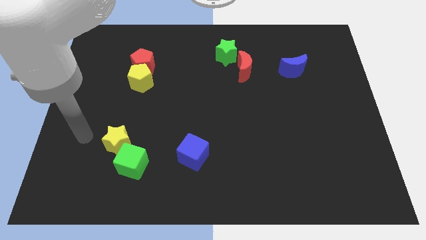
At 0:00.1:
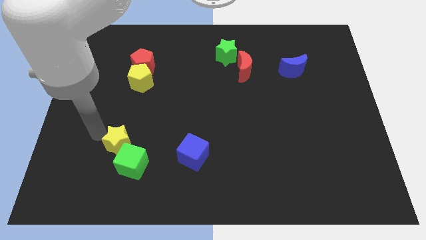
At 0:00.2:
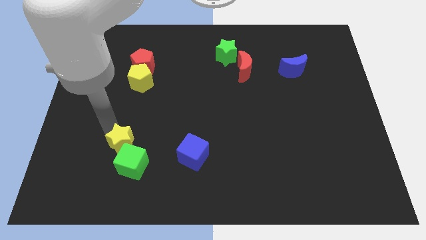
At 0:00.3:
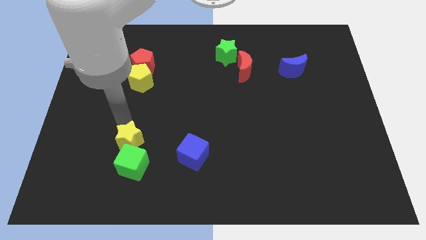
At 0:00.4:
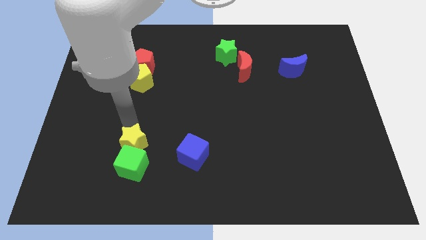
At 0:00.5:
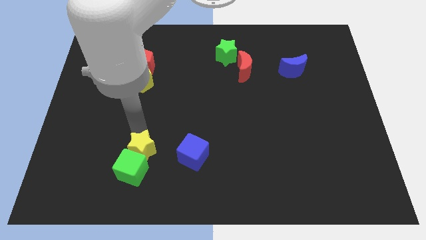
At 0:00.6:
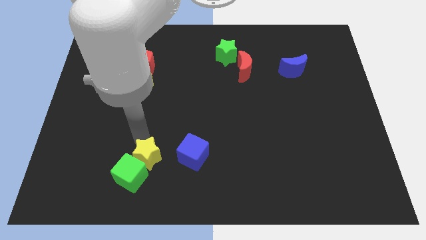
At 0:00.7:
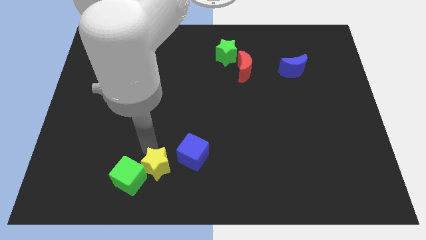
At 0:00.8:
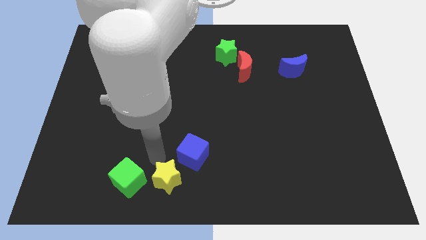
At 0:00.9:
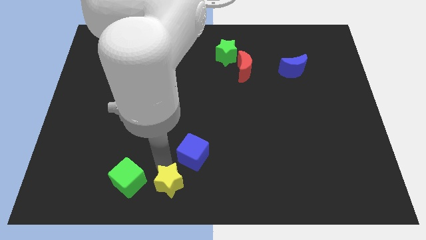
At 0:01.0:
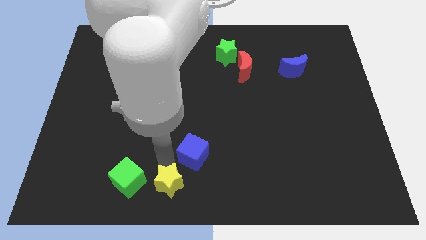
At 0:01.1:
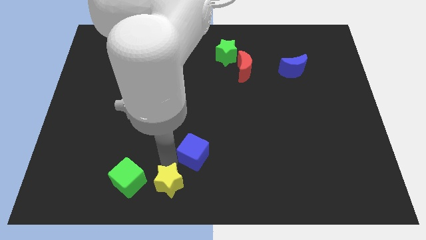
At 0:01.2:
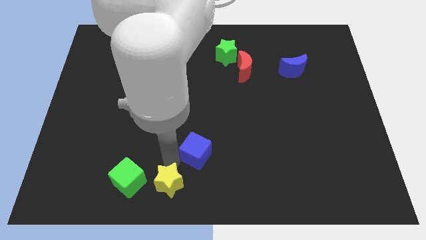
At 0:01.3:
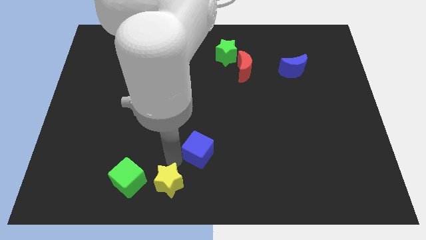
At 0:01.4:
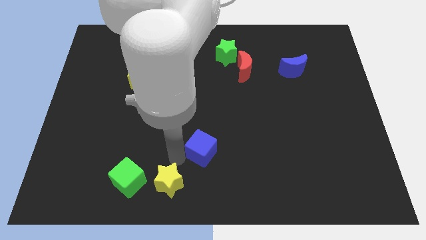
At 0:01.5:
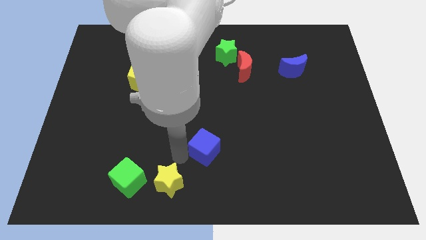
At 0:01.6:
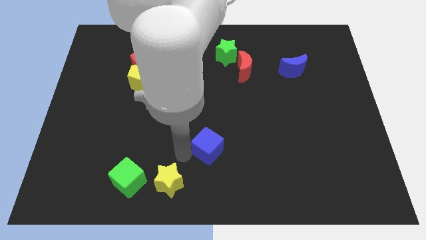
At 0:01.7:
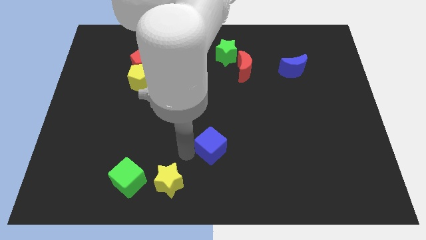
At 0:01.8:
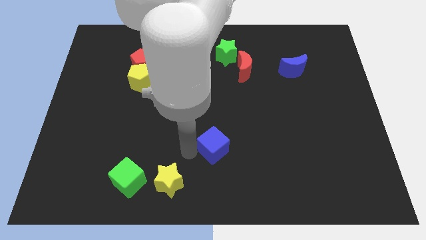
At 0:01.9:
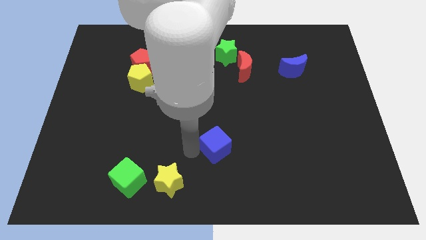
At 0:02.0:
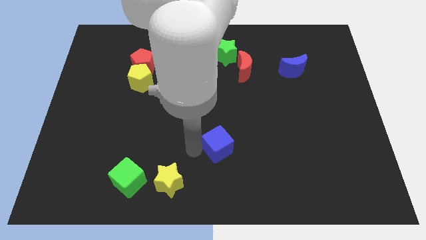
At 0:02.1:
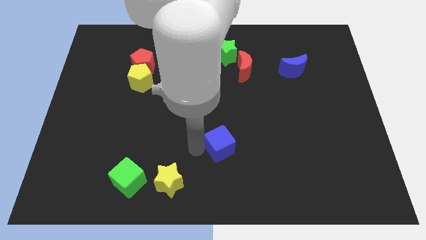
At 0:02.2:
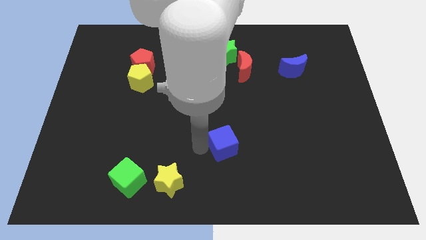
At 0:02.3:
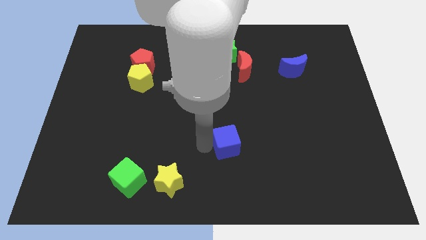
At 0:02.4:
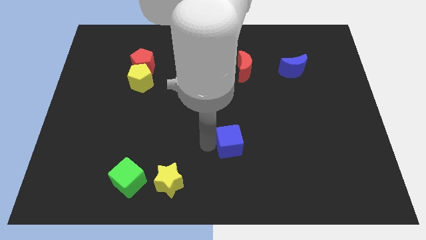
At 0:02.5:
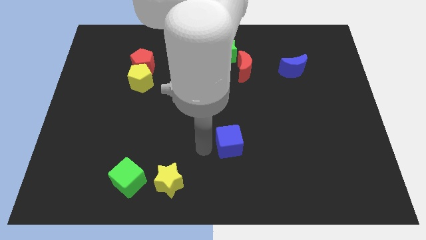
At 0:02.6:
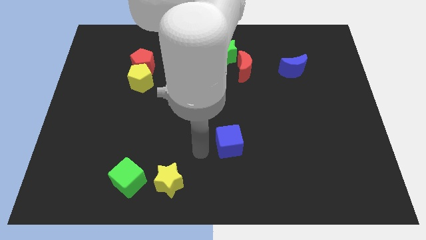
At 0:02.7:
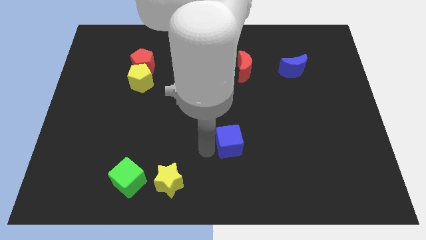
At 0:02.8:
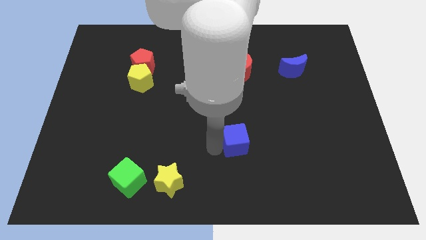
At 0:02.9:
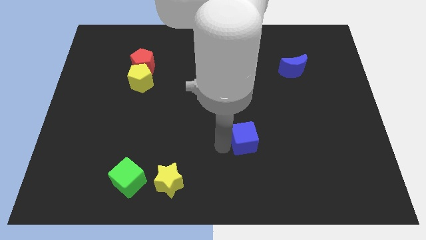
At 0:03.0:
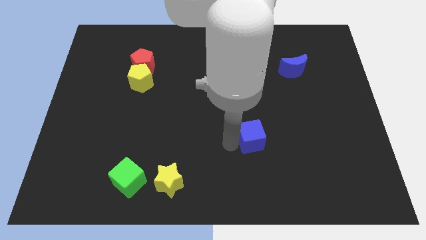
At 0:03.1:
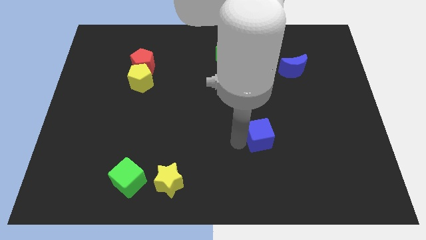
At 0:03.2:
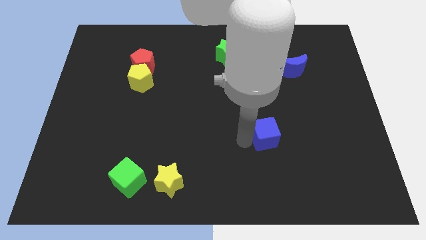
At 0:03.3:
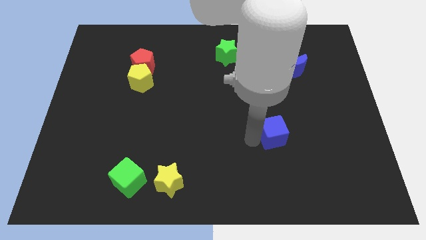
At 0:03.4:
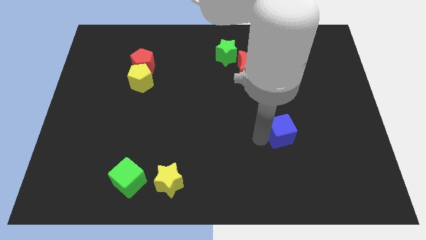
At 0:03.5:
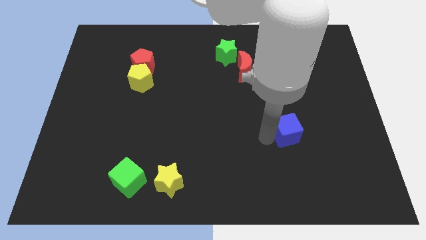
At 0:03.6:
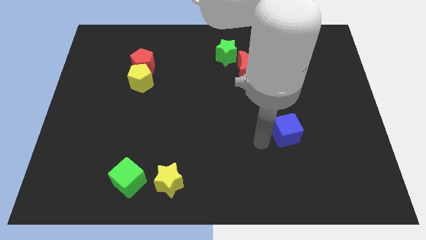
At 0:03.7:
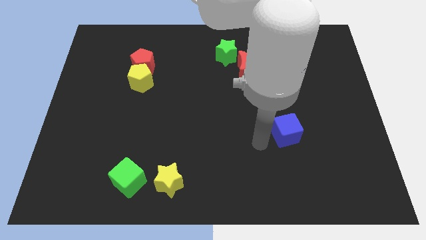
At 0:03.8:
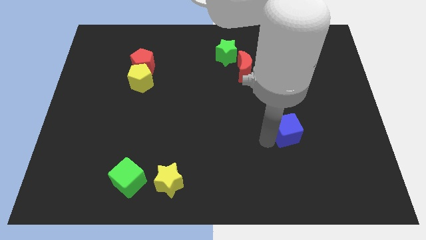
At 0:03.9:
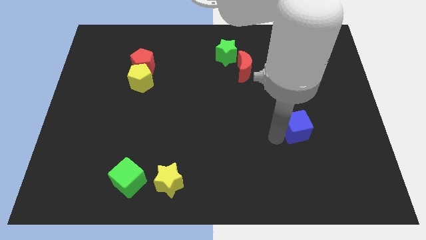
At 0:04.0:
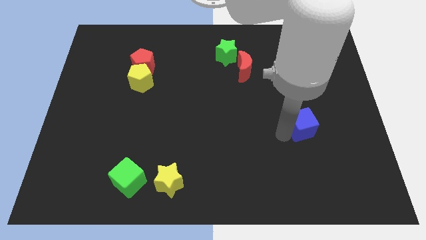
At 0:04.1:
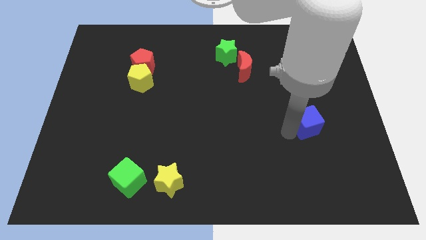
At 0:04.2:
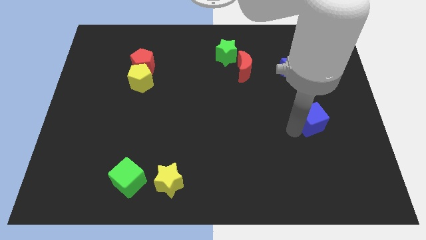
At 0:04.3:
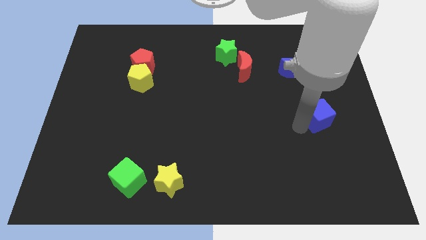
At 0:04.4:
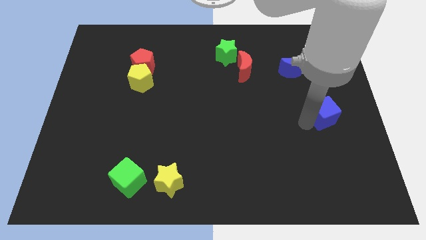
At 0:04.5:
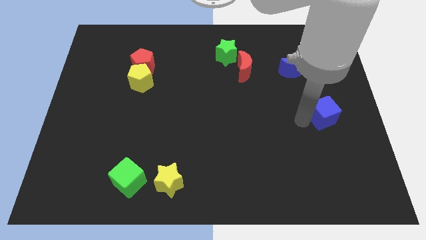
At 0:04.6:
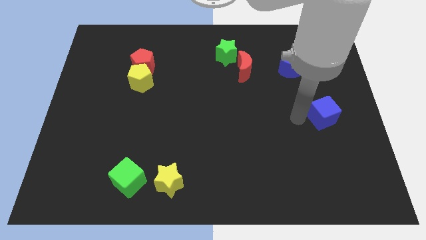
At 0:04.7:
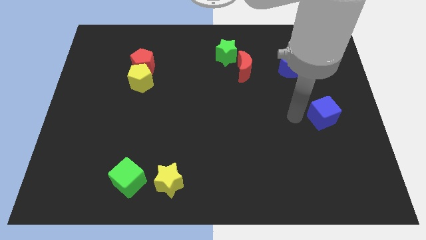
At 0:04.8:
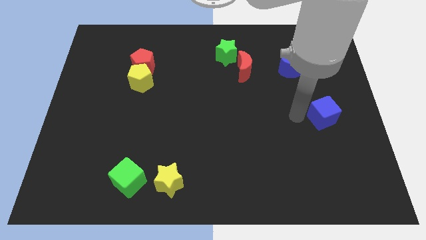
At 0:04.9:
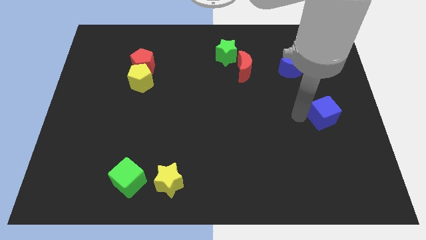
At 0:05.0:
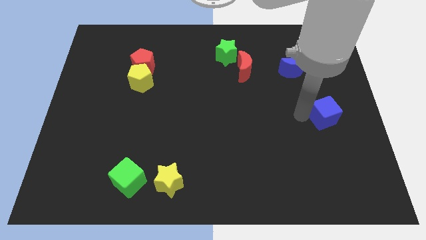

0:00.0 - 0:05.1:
push the blue cube to the right side of the board

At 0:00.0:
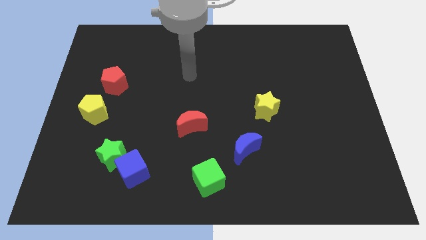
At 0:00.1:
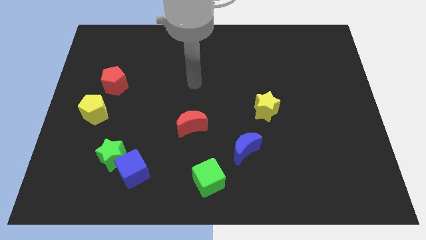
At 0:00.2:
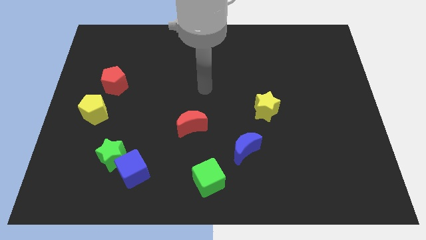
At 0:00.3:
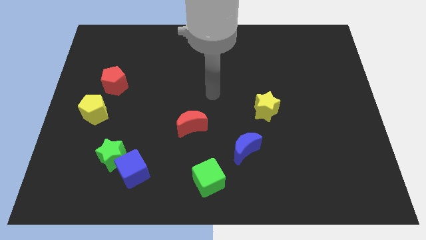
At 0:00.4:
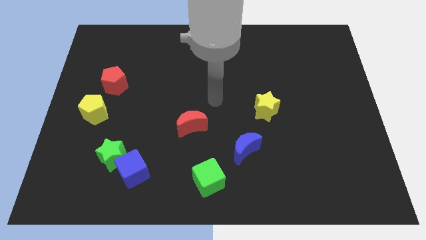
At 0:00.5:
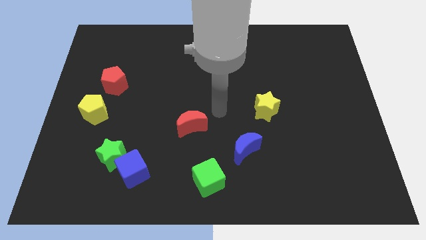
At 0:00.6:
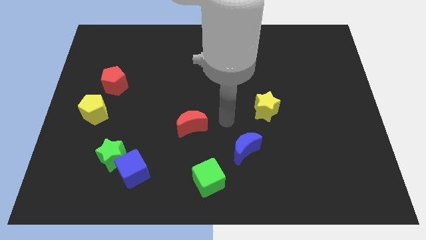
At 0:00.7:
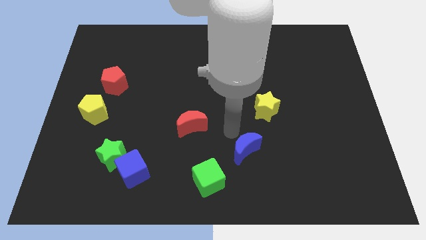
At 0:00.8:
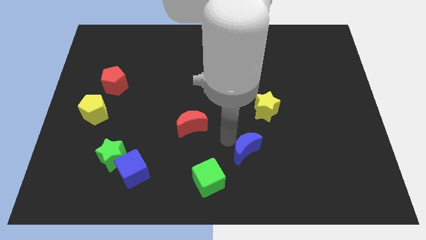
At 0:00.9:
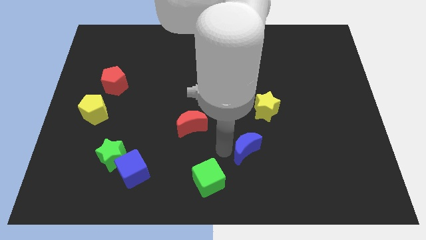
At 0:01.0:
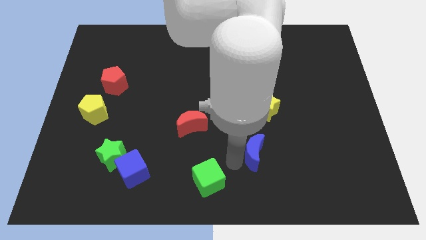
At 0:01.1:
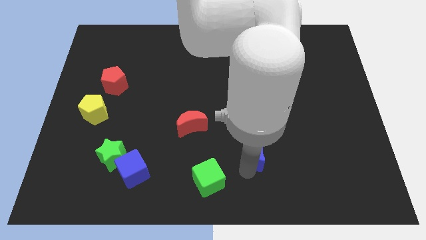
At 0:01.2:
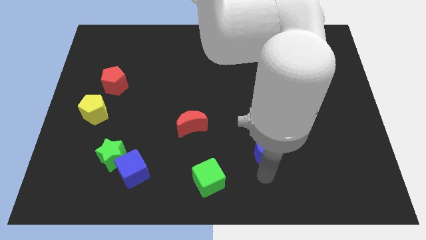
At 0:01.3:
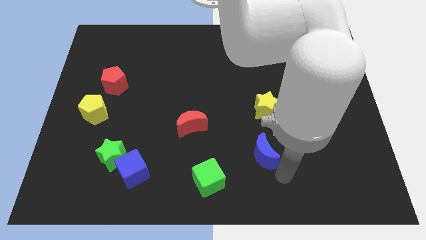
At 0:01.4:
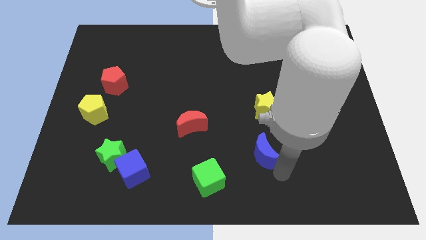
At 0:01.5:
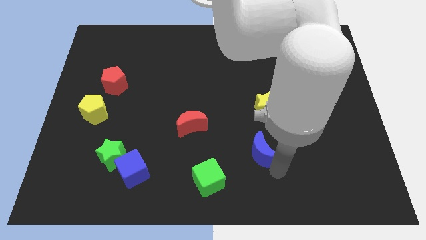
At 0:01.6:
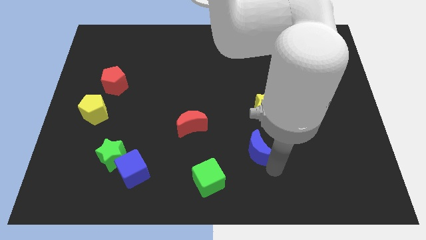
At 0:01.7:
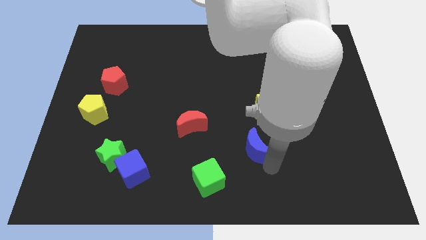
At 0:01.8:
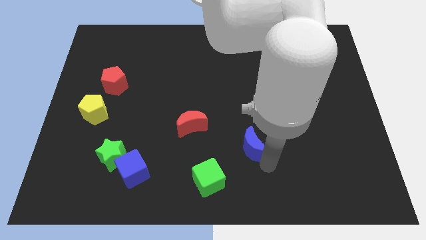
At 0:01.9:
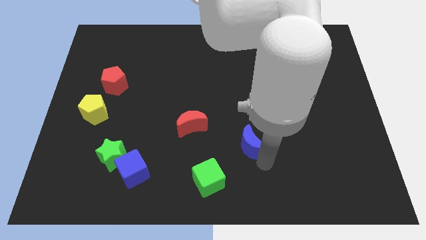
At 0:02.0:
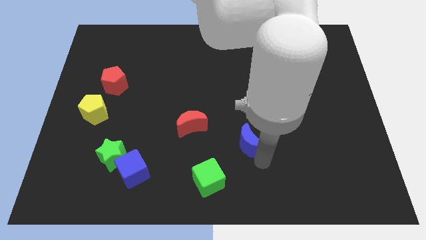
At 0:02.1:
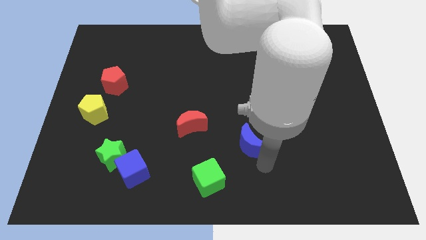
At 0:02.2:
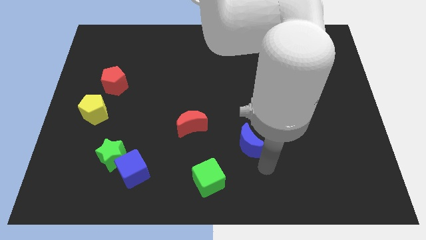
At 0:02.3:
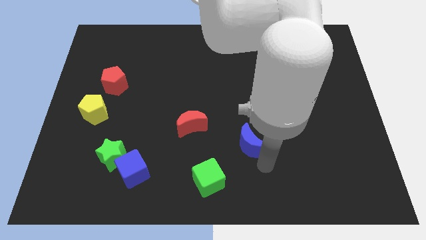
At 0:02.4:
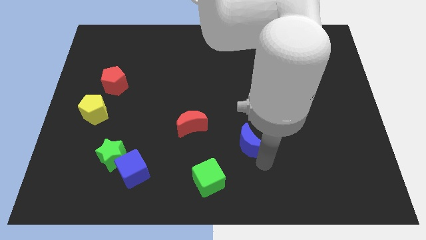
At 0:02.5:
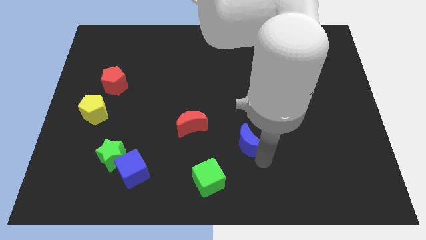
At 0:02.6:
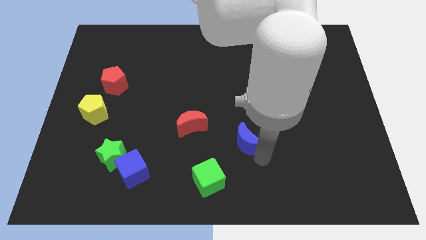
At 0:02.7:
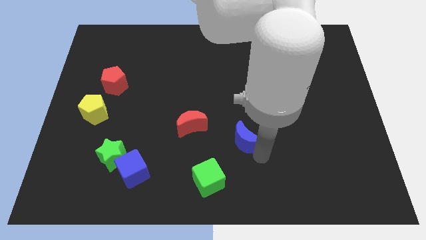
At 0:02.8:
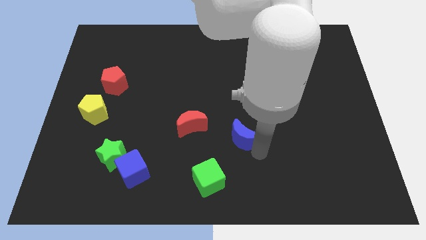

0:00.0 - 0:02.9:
push the blue moon to the center
